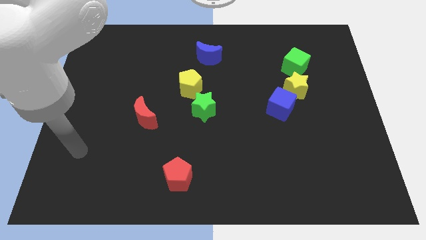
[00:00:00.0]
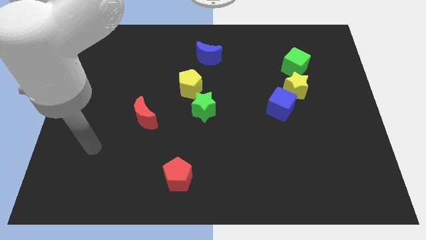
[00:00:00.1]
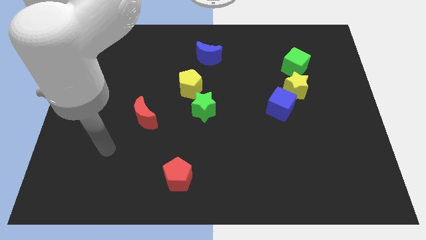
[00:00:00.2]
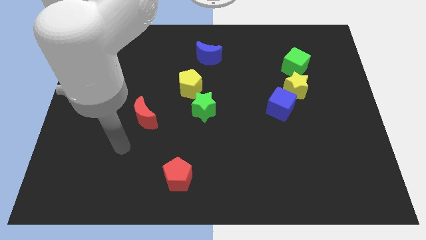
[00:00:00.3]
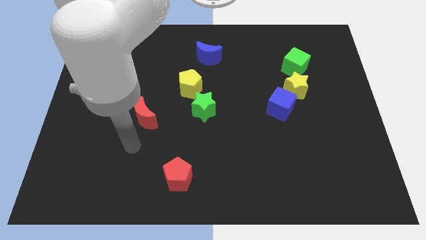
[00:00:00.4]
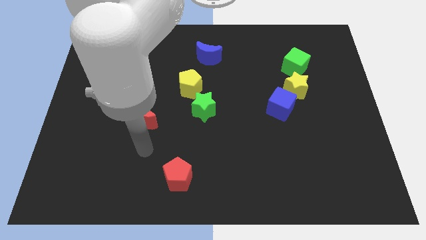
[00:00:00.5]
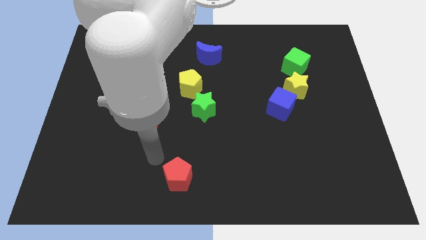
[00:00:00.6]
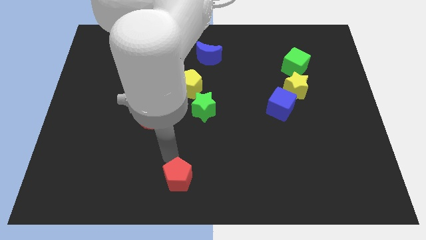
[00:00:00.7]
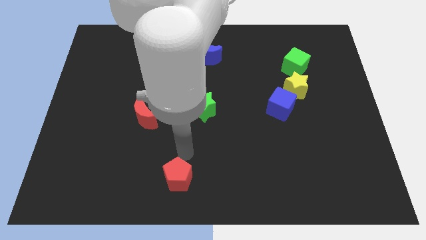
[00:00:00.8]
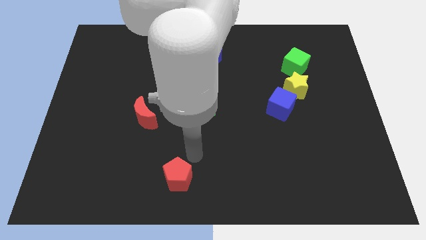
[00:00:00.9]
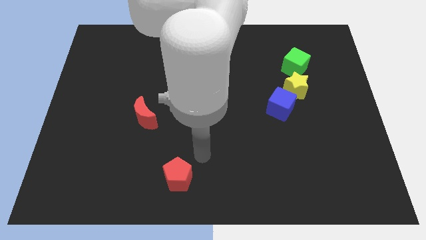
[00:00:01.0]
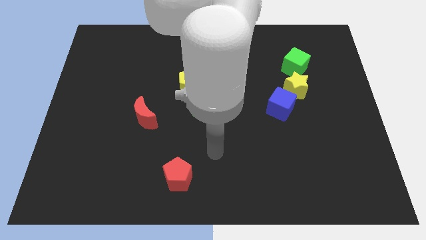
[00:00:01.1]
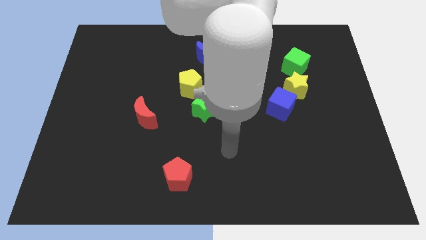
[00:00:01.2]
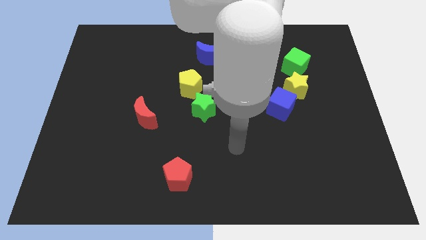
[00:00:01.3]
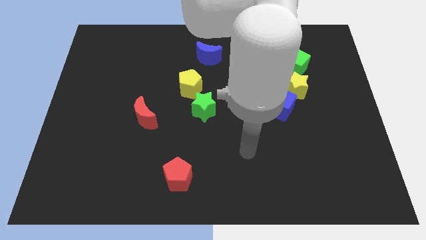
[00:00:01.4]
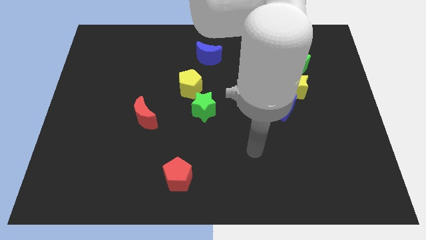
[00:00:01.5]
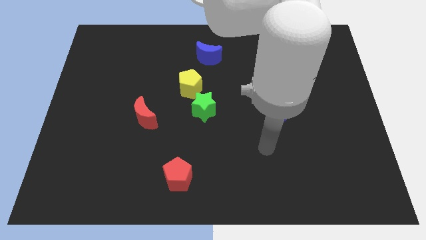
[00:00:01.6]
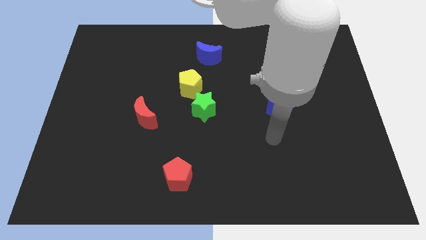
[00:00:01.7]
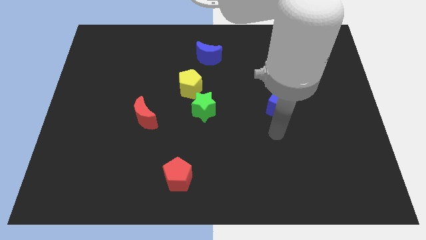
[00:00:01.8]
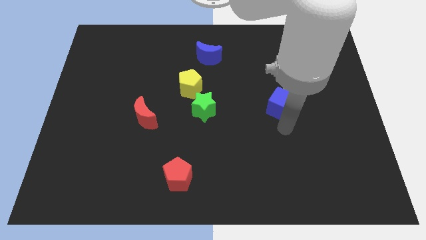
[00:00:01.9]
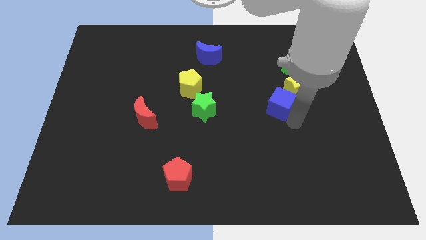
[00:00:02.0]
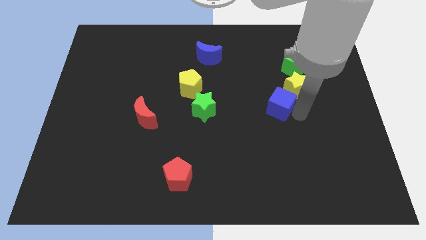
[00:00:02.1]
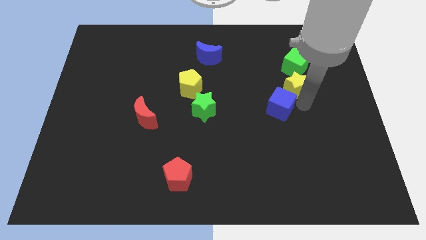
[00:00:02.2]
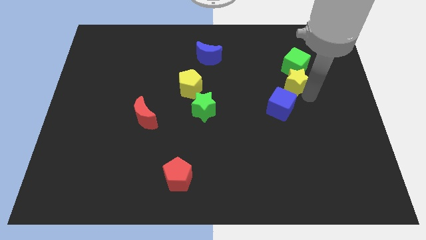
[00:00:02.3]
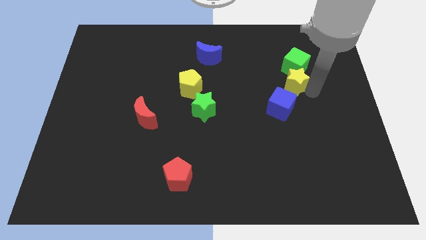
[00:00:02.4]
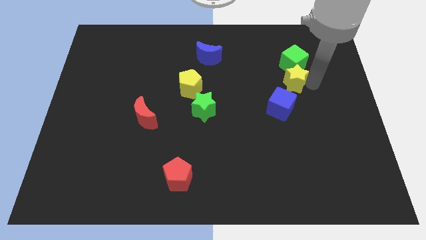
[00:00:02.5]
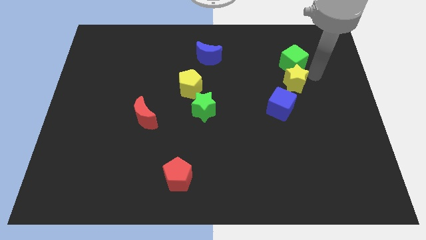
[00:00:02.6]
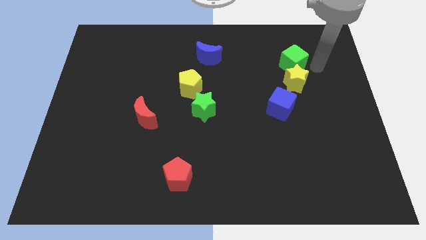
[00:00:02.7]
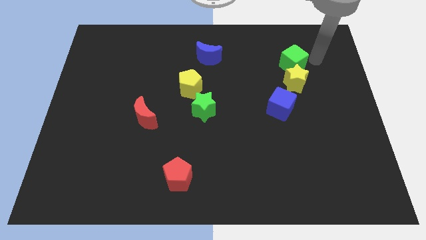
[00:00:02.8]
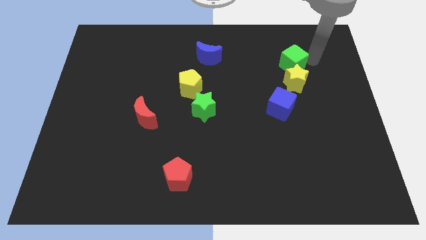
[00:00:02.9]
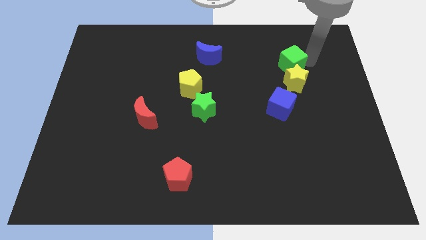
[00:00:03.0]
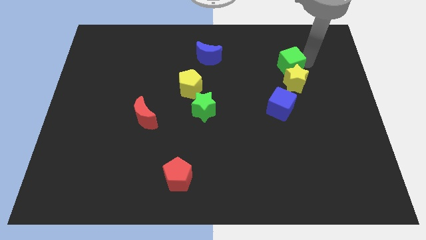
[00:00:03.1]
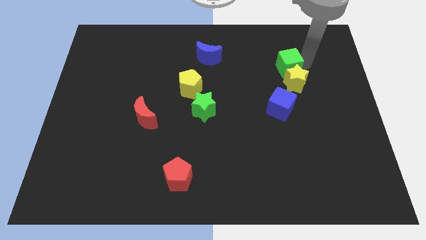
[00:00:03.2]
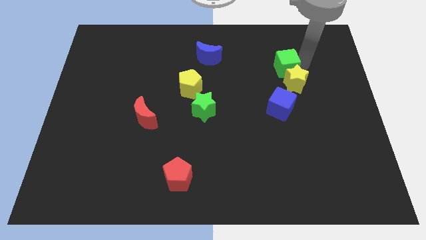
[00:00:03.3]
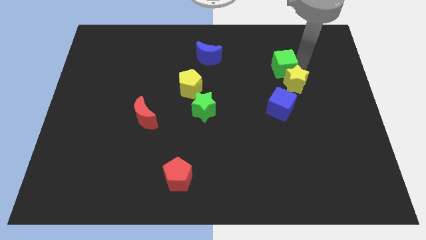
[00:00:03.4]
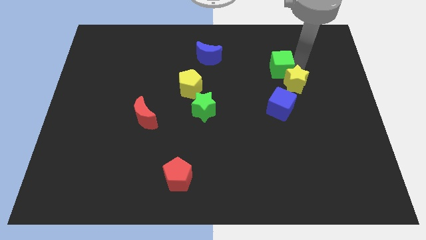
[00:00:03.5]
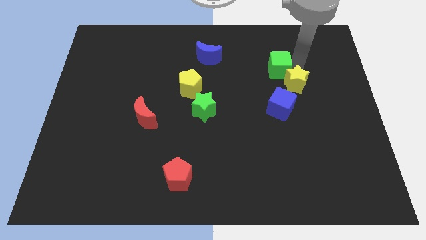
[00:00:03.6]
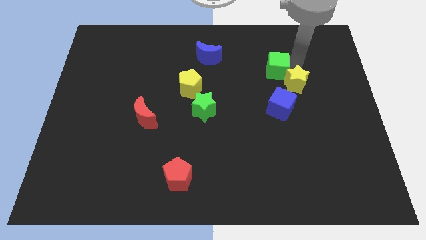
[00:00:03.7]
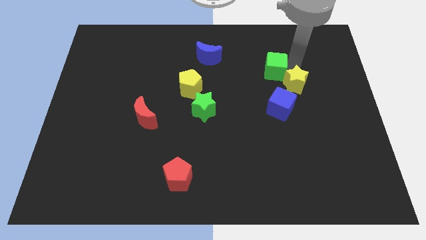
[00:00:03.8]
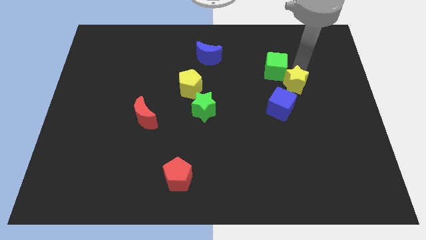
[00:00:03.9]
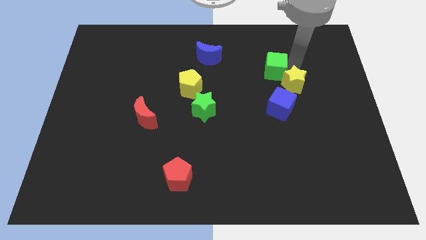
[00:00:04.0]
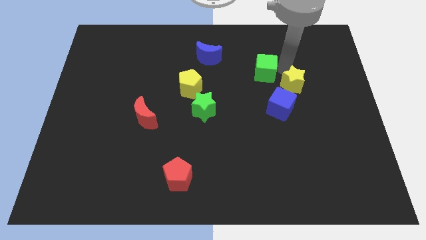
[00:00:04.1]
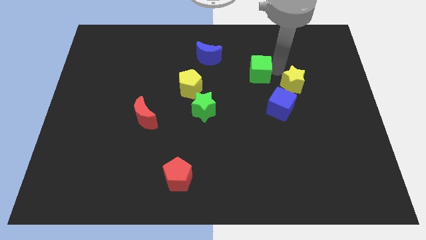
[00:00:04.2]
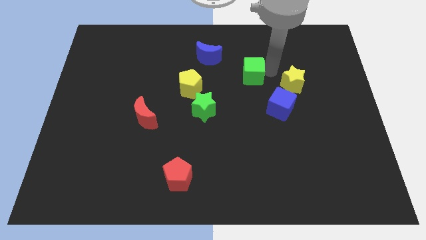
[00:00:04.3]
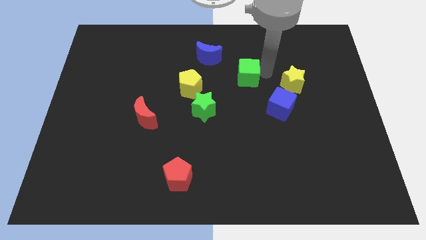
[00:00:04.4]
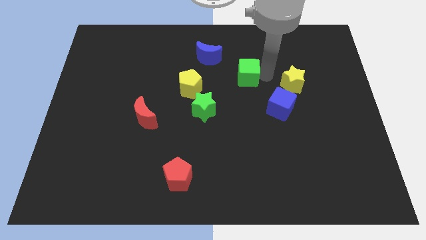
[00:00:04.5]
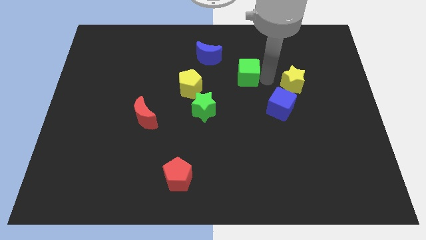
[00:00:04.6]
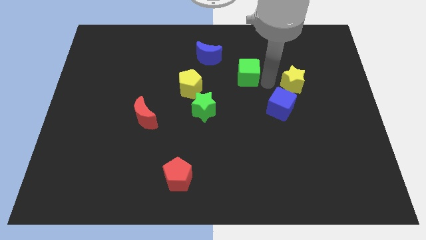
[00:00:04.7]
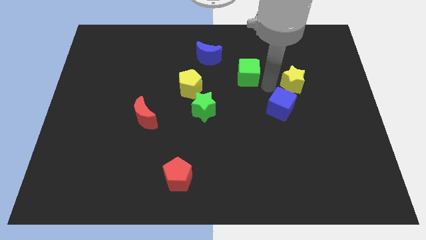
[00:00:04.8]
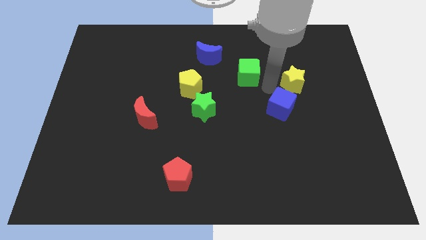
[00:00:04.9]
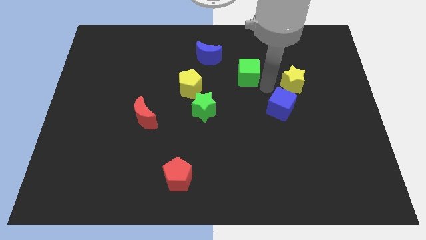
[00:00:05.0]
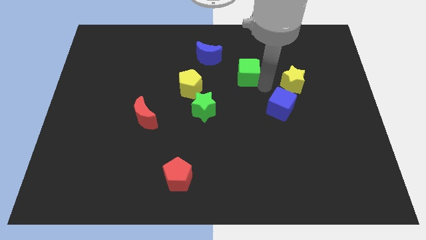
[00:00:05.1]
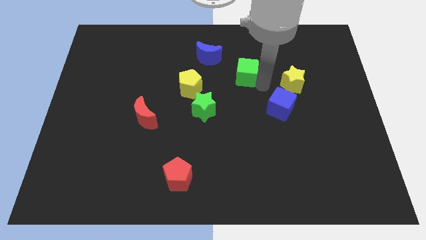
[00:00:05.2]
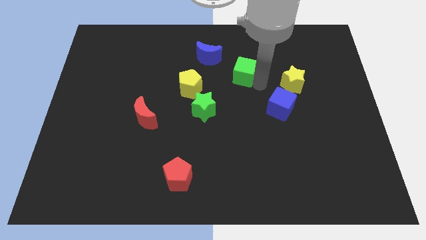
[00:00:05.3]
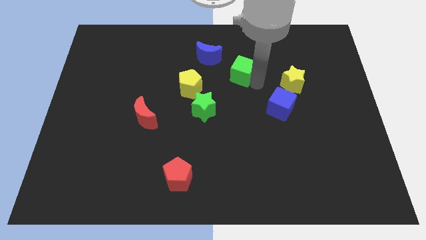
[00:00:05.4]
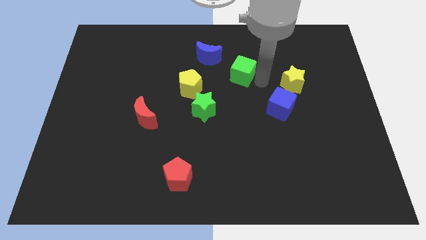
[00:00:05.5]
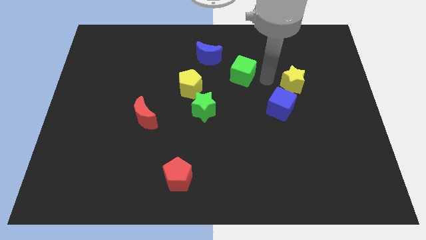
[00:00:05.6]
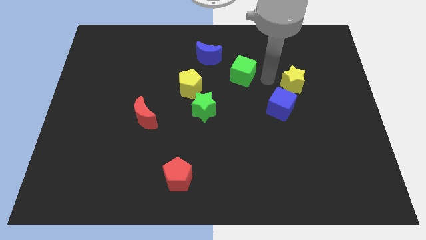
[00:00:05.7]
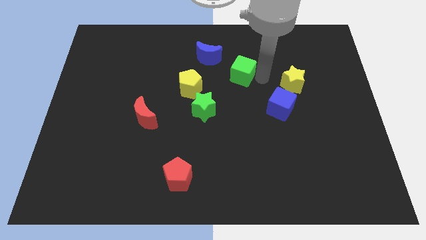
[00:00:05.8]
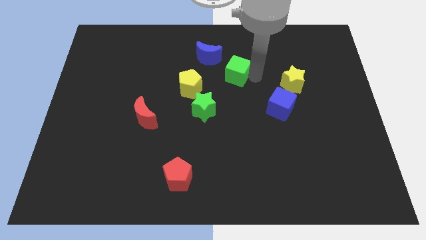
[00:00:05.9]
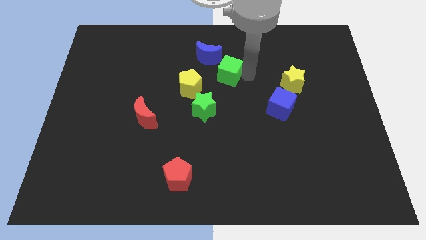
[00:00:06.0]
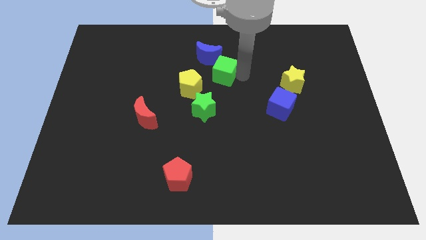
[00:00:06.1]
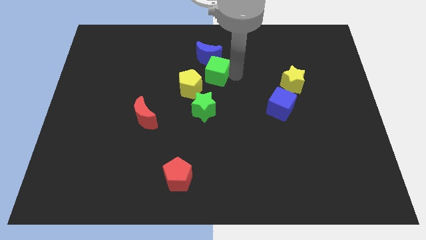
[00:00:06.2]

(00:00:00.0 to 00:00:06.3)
move the green cube to the left

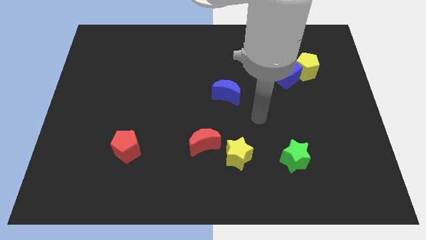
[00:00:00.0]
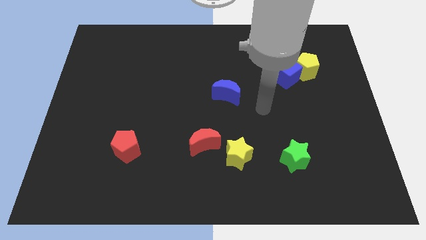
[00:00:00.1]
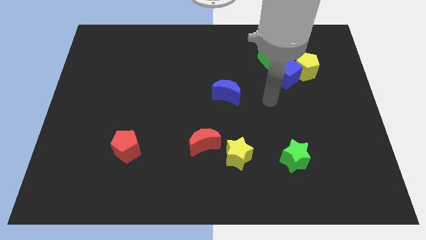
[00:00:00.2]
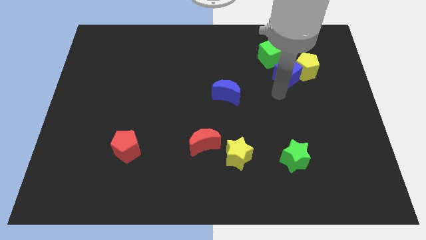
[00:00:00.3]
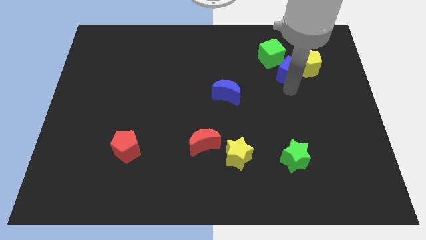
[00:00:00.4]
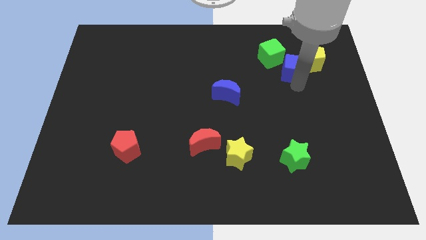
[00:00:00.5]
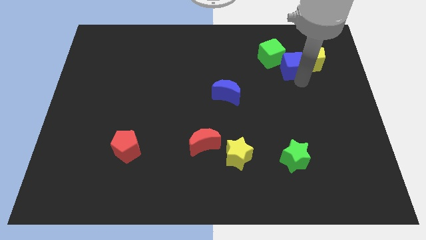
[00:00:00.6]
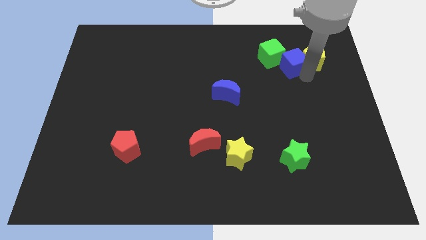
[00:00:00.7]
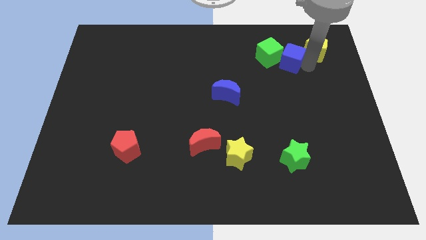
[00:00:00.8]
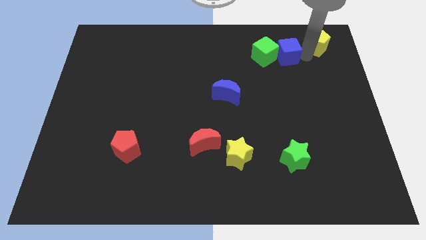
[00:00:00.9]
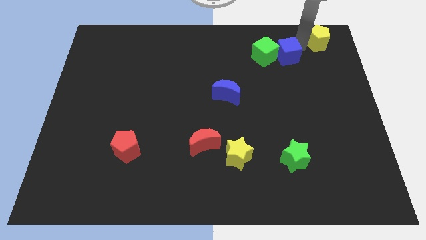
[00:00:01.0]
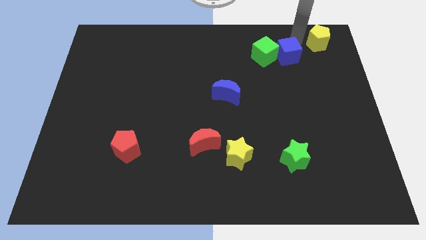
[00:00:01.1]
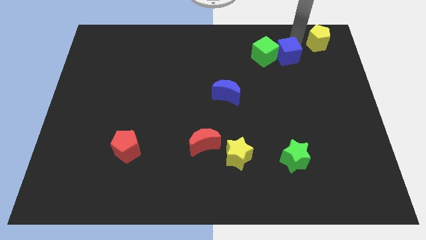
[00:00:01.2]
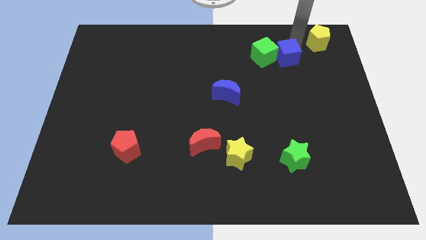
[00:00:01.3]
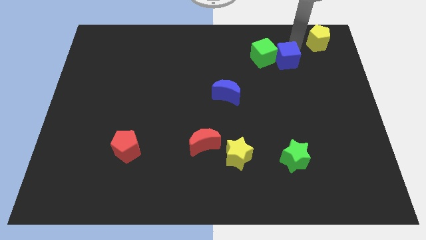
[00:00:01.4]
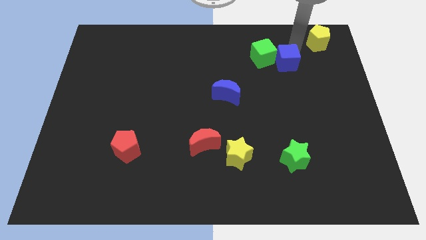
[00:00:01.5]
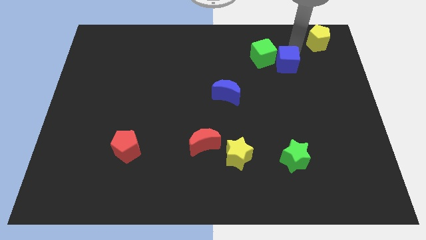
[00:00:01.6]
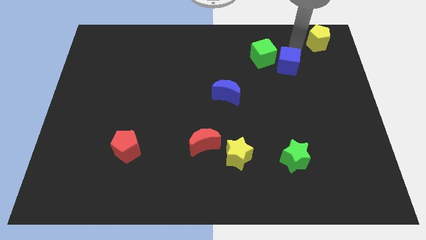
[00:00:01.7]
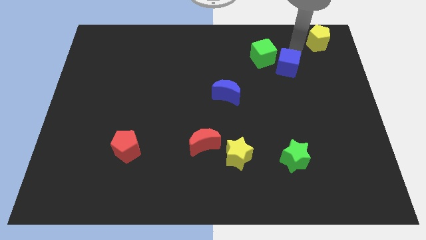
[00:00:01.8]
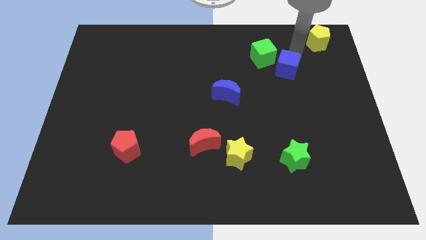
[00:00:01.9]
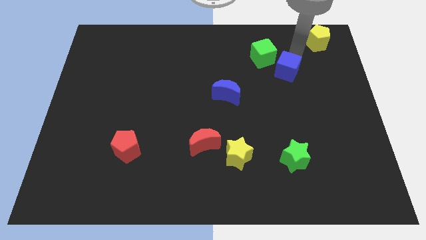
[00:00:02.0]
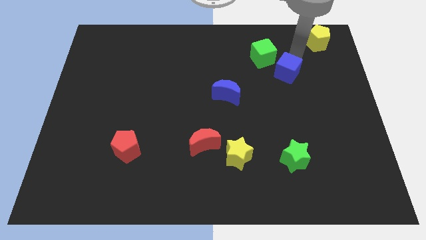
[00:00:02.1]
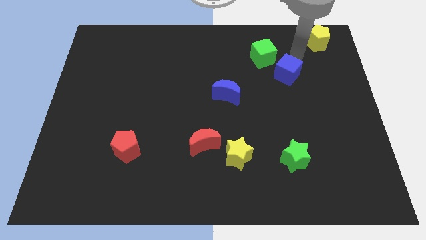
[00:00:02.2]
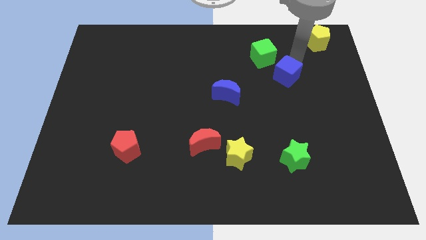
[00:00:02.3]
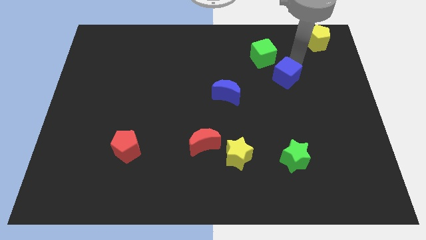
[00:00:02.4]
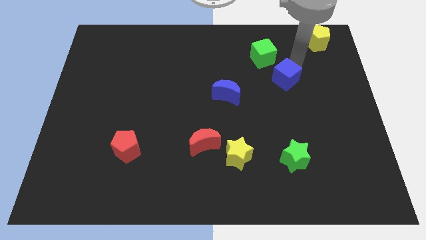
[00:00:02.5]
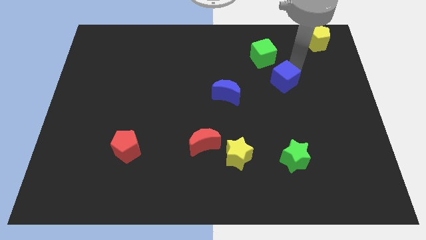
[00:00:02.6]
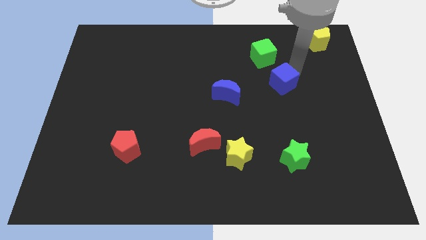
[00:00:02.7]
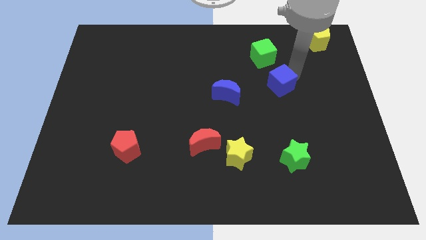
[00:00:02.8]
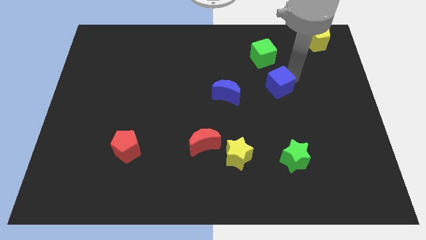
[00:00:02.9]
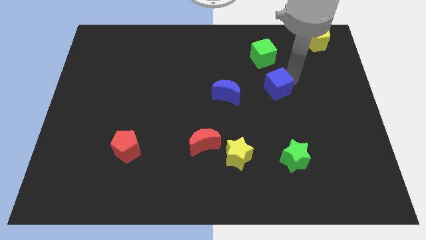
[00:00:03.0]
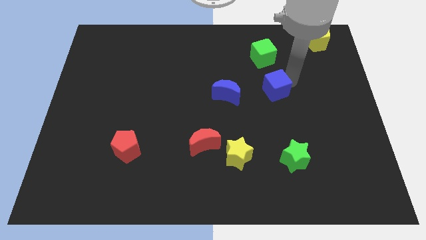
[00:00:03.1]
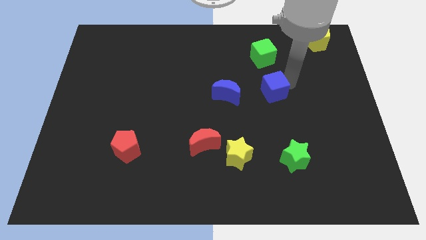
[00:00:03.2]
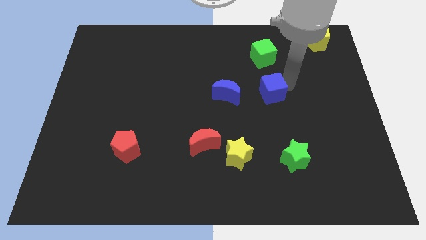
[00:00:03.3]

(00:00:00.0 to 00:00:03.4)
push the blue cube slightly diagonally down and left
